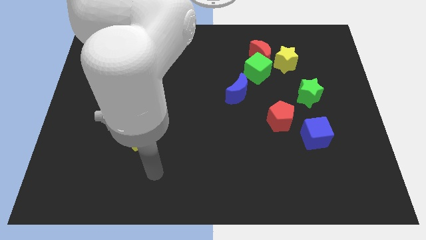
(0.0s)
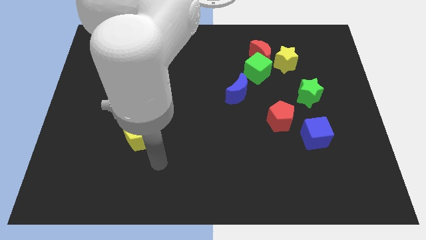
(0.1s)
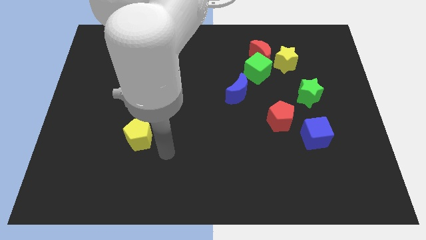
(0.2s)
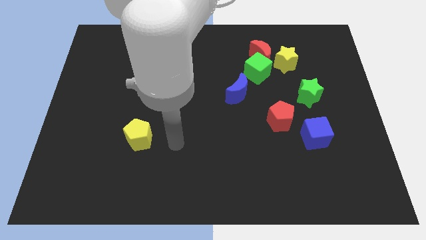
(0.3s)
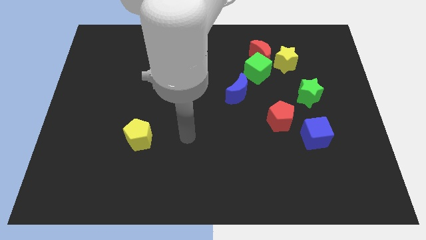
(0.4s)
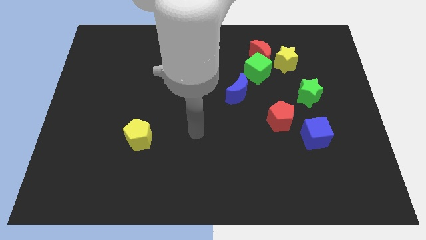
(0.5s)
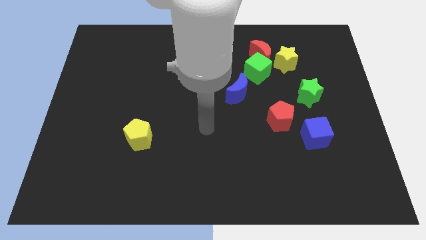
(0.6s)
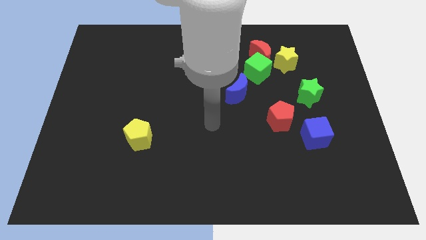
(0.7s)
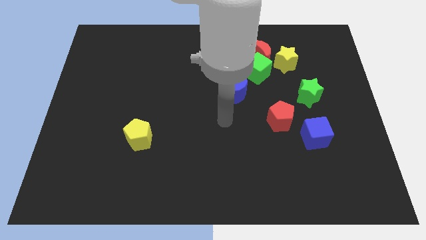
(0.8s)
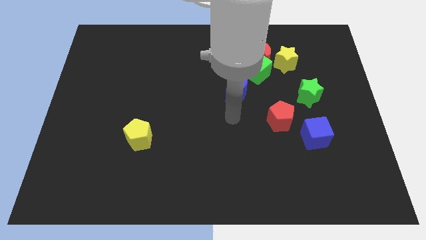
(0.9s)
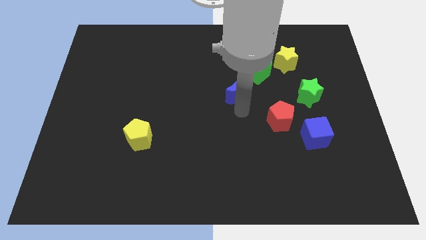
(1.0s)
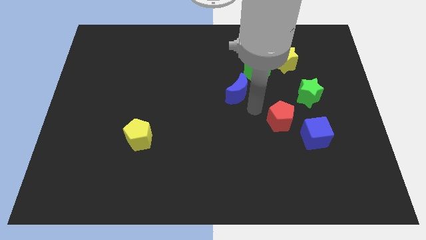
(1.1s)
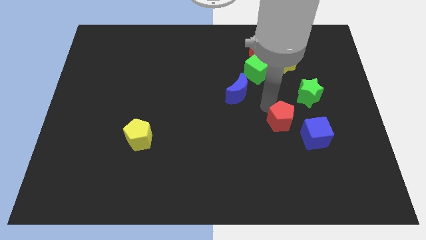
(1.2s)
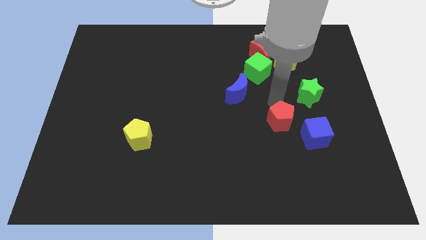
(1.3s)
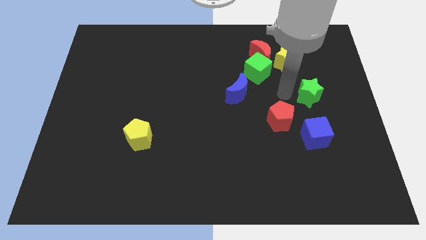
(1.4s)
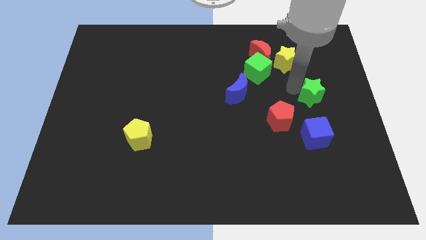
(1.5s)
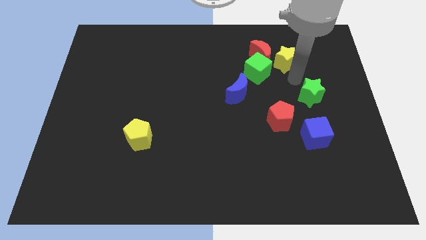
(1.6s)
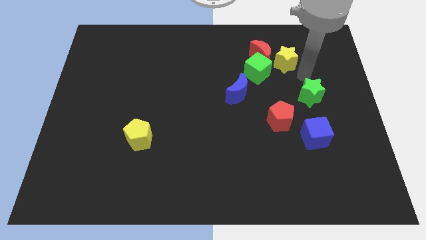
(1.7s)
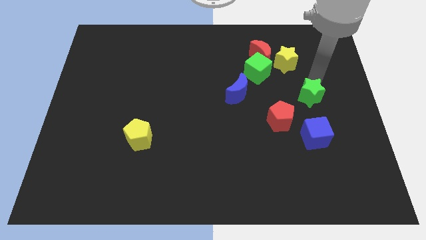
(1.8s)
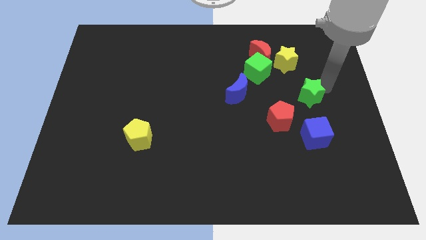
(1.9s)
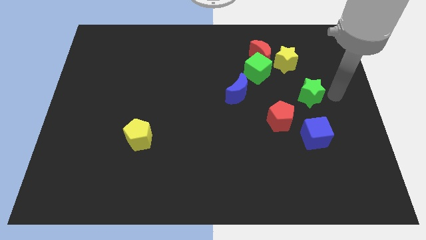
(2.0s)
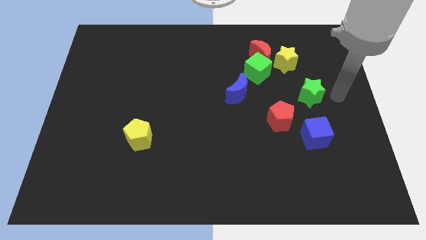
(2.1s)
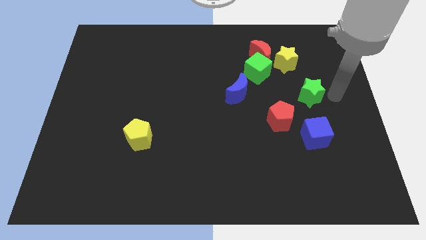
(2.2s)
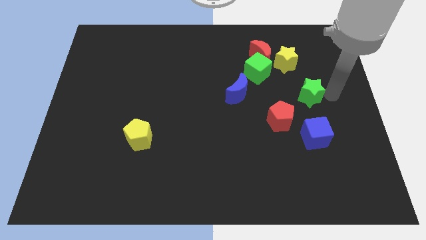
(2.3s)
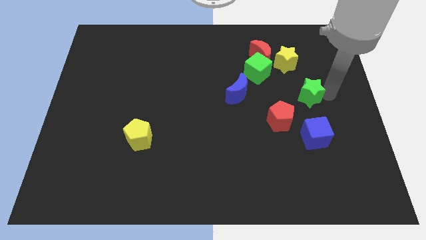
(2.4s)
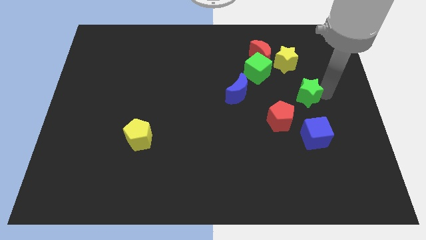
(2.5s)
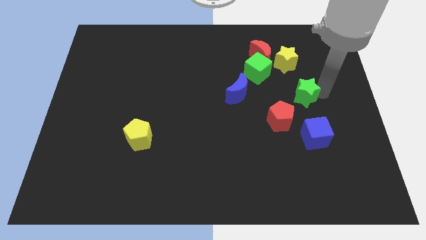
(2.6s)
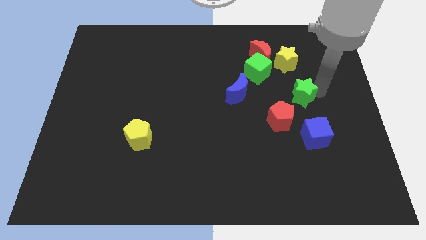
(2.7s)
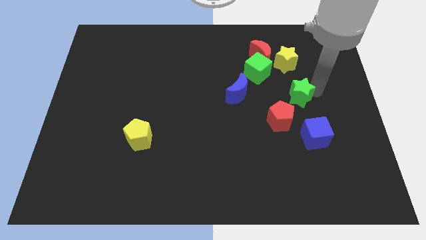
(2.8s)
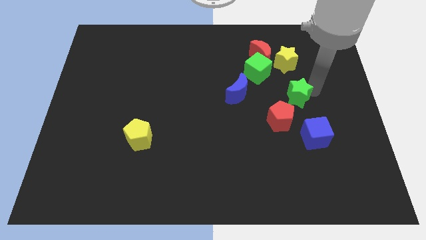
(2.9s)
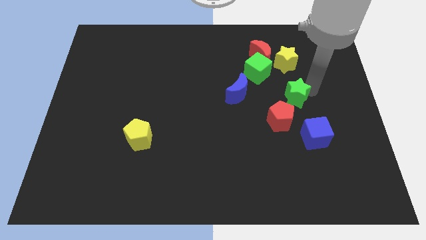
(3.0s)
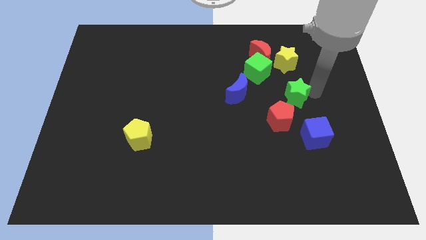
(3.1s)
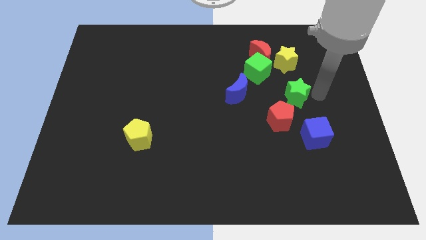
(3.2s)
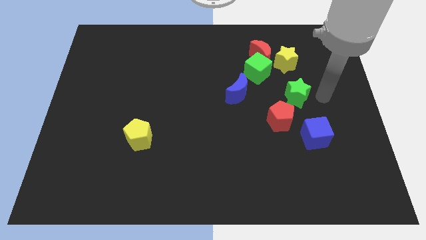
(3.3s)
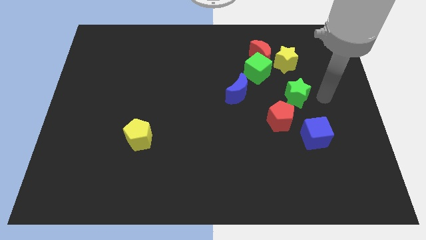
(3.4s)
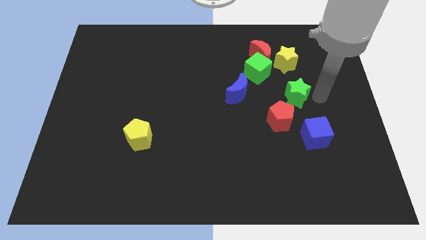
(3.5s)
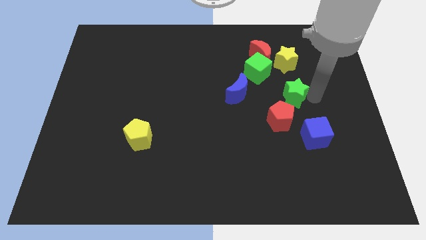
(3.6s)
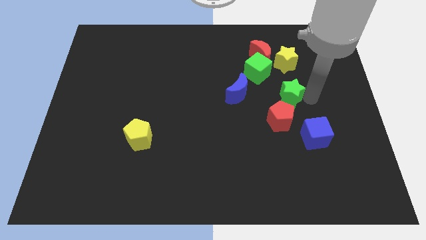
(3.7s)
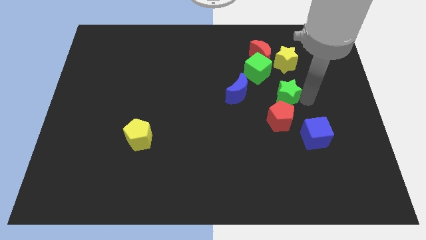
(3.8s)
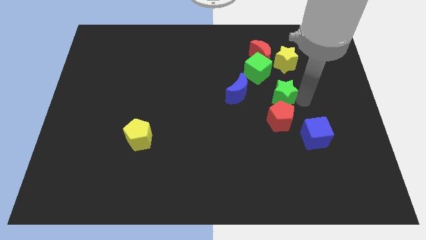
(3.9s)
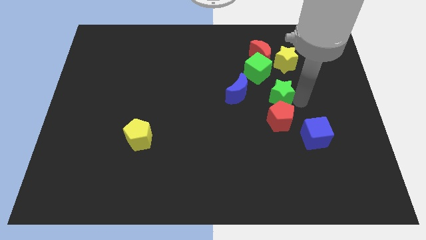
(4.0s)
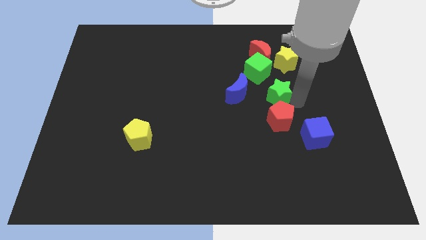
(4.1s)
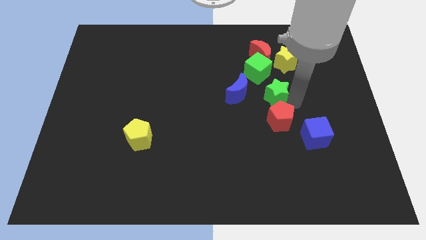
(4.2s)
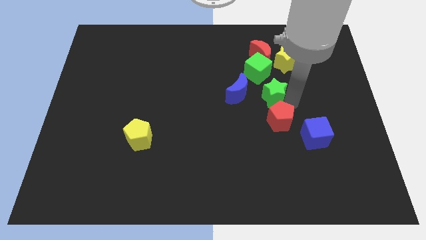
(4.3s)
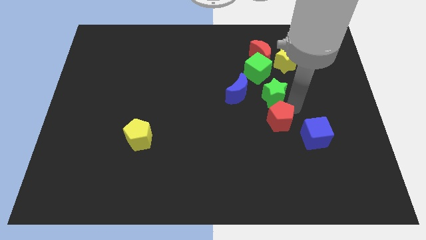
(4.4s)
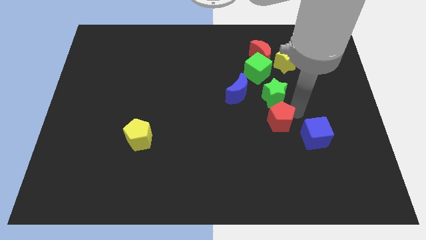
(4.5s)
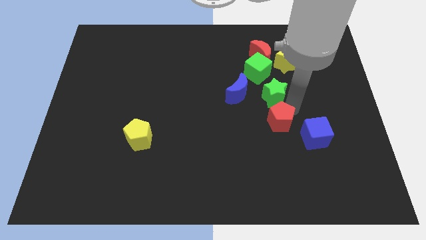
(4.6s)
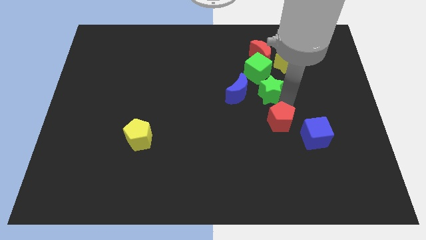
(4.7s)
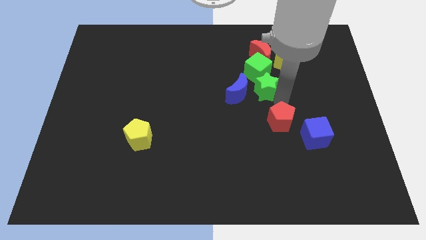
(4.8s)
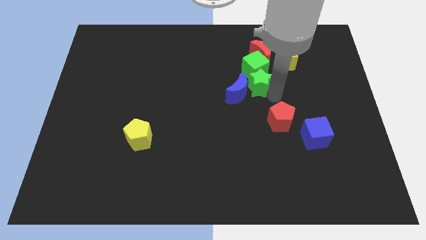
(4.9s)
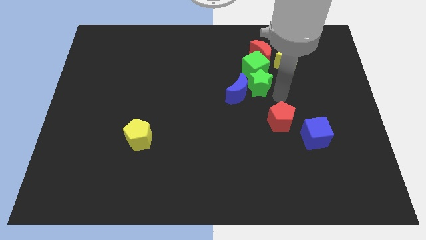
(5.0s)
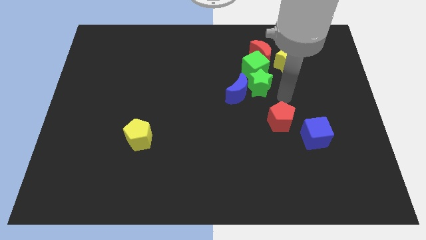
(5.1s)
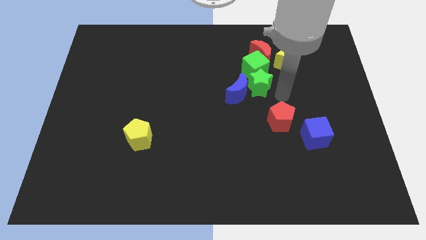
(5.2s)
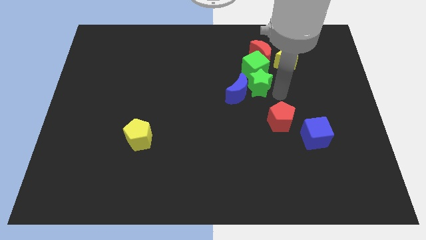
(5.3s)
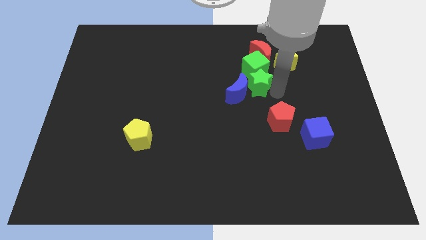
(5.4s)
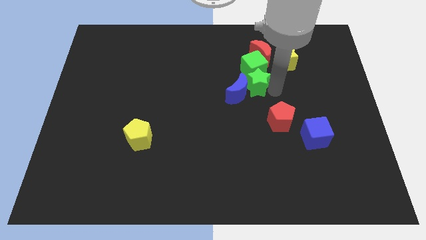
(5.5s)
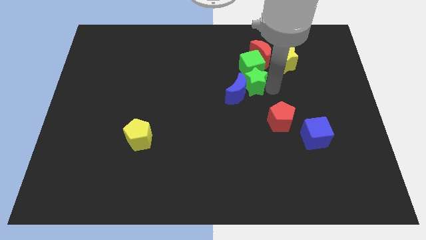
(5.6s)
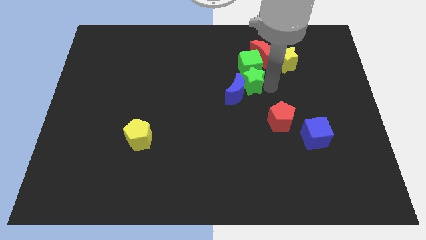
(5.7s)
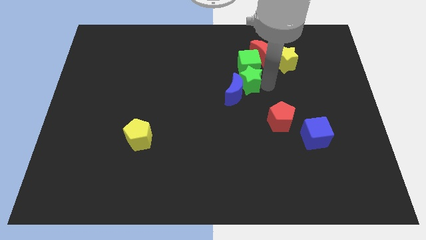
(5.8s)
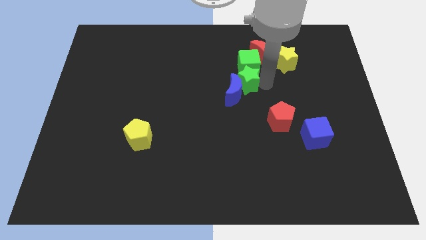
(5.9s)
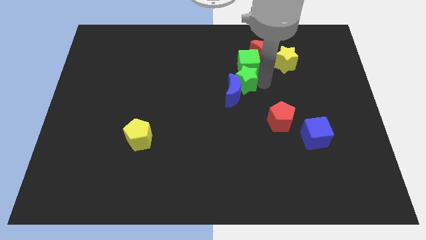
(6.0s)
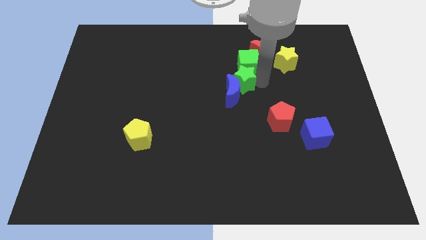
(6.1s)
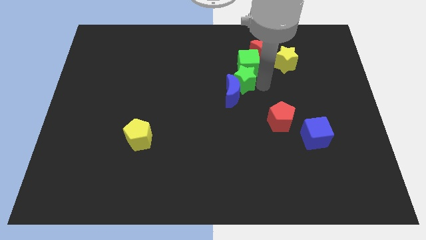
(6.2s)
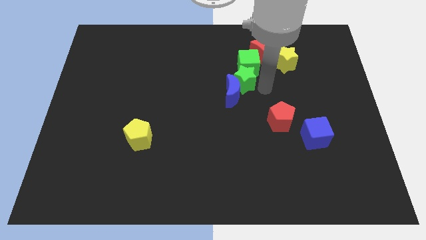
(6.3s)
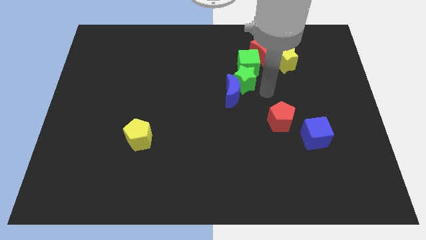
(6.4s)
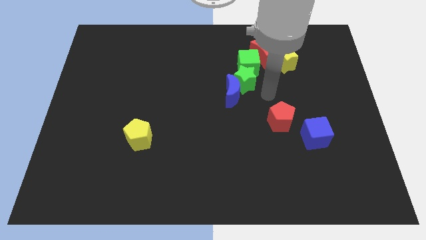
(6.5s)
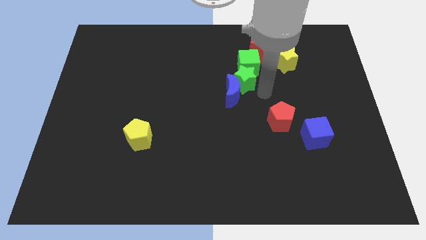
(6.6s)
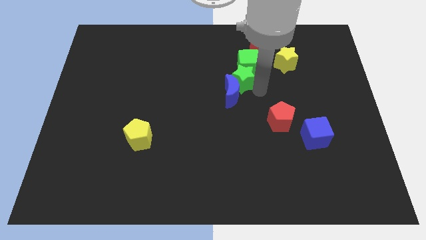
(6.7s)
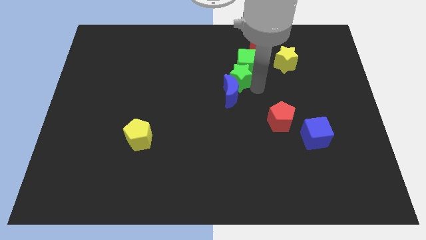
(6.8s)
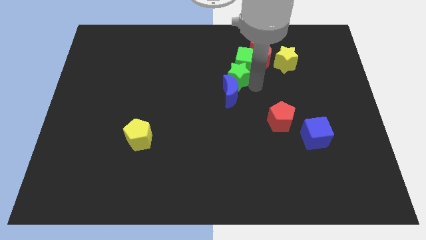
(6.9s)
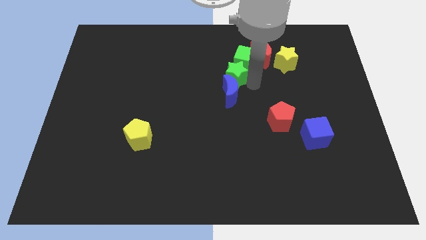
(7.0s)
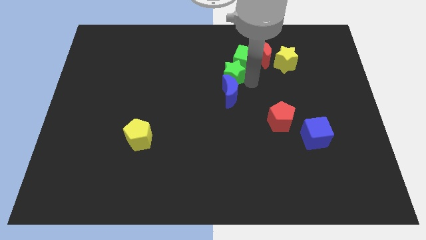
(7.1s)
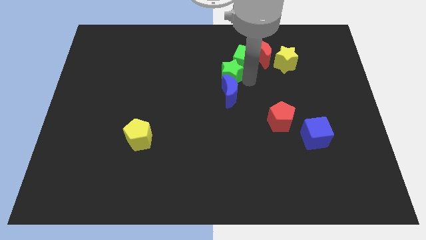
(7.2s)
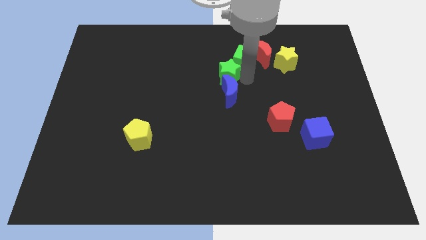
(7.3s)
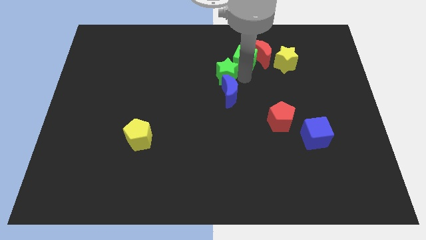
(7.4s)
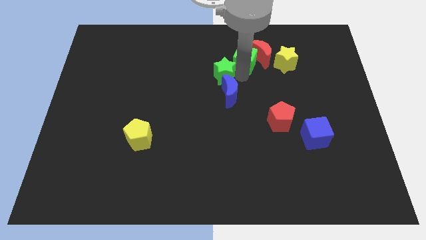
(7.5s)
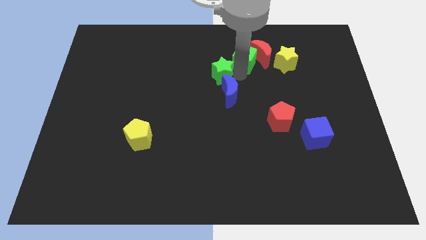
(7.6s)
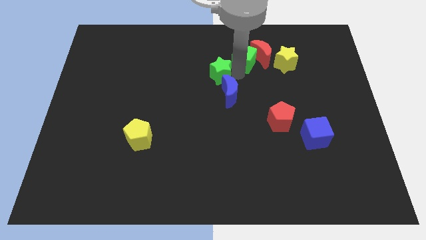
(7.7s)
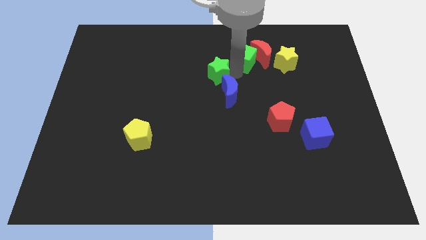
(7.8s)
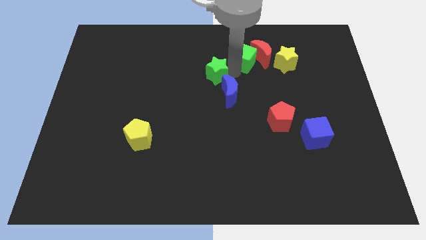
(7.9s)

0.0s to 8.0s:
move the green star to the left
